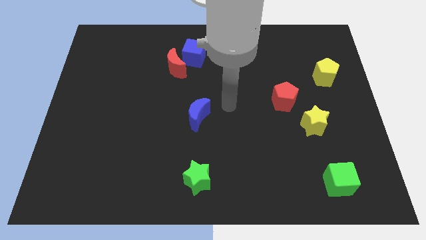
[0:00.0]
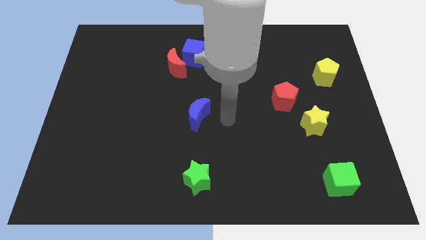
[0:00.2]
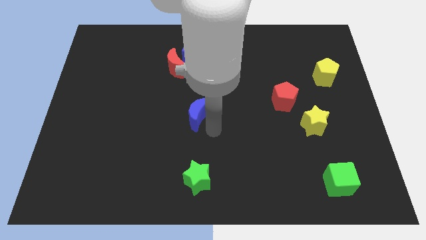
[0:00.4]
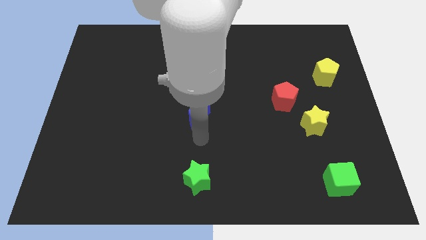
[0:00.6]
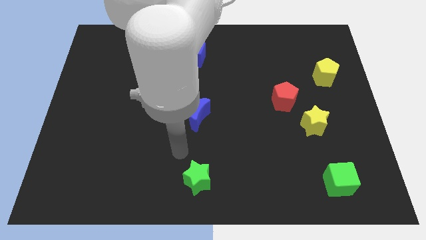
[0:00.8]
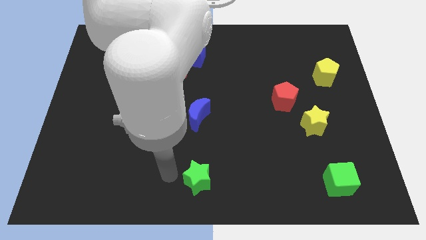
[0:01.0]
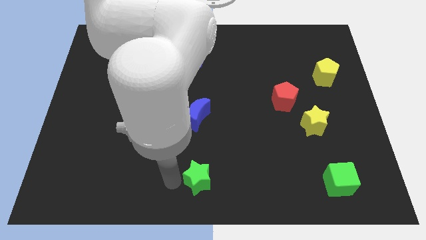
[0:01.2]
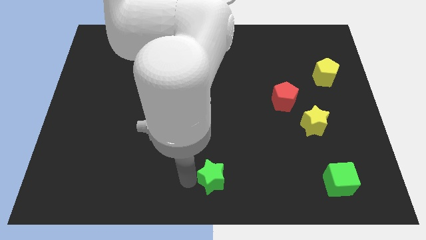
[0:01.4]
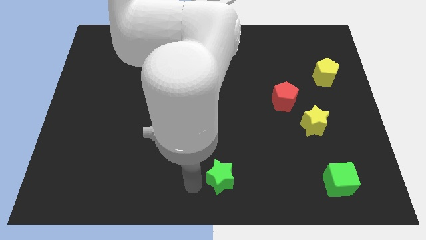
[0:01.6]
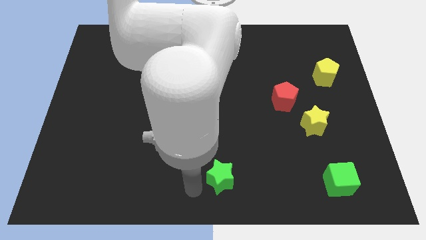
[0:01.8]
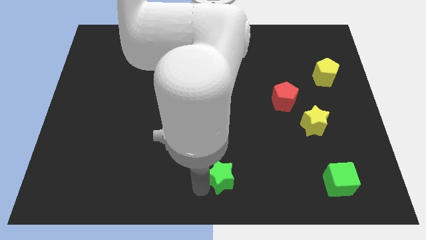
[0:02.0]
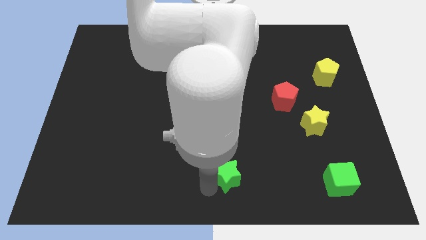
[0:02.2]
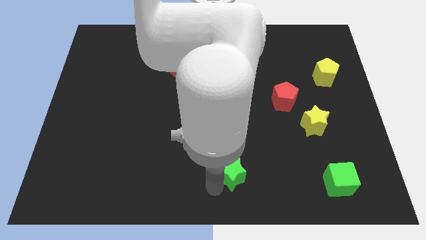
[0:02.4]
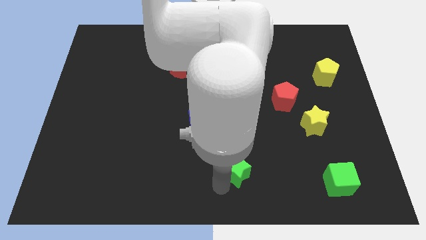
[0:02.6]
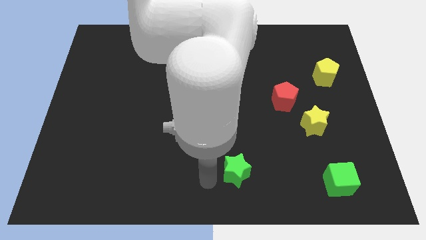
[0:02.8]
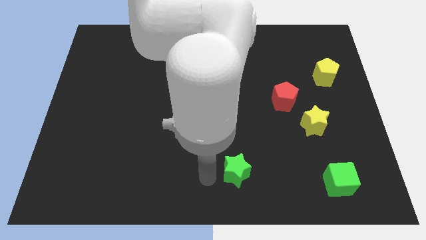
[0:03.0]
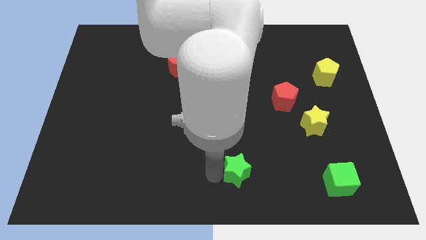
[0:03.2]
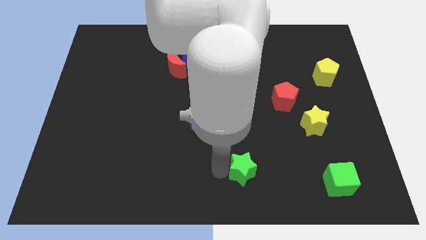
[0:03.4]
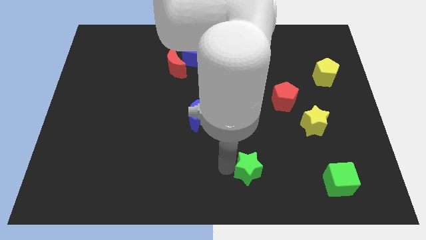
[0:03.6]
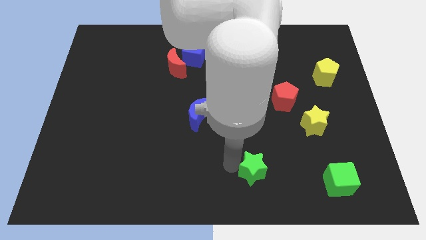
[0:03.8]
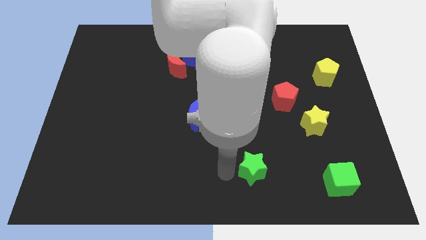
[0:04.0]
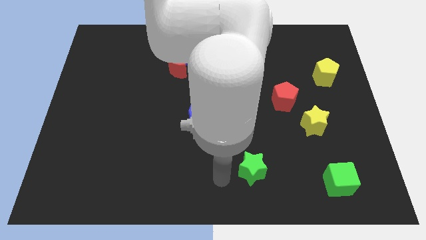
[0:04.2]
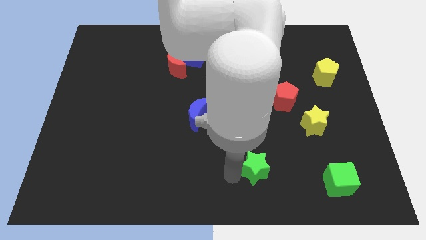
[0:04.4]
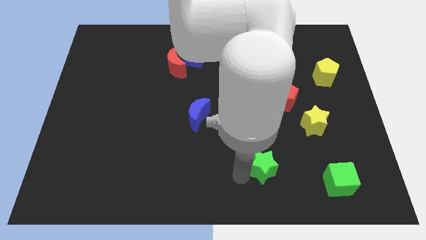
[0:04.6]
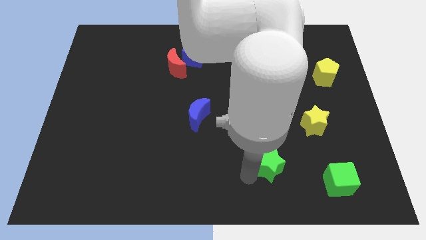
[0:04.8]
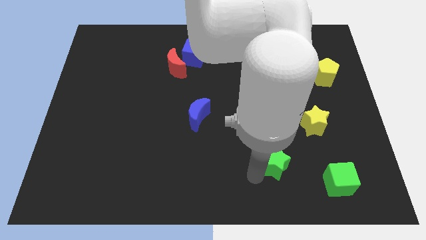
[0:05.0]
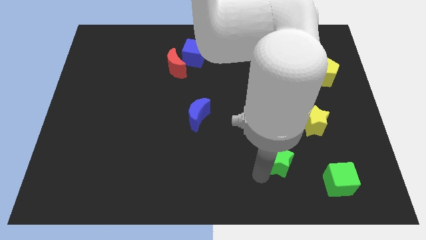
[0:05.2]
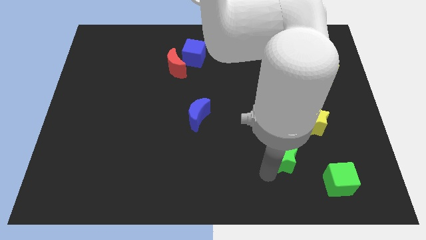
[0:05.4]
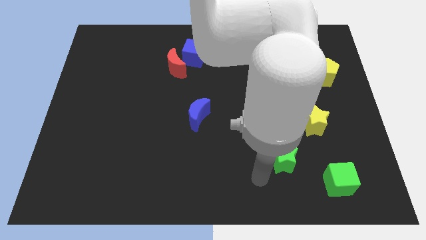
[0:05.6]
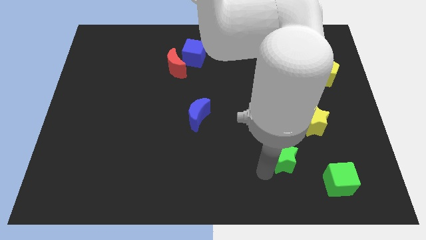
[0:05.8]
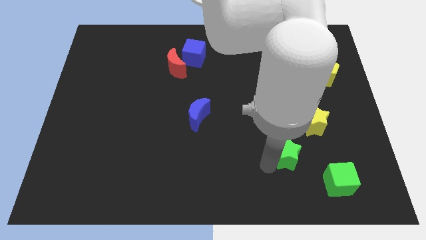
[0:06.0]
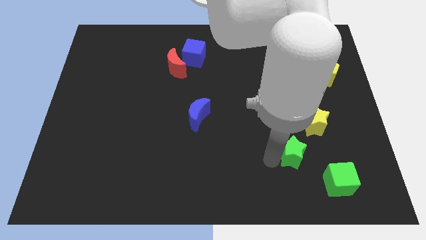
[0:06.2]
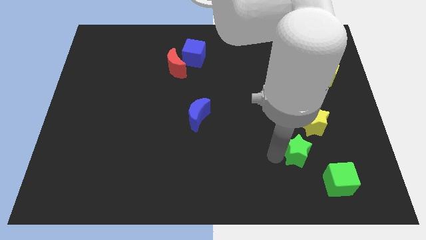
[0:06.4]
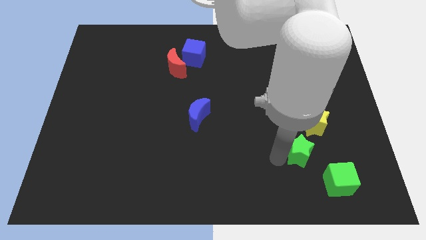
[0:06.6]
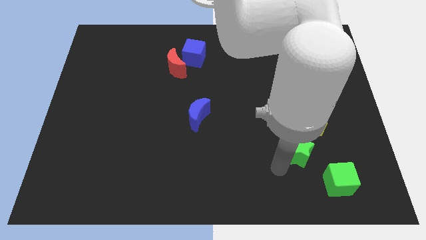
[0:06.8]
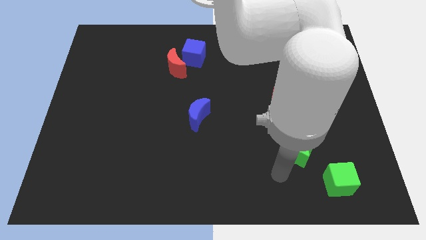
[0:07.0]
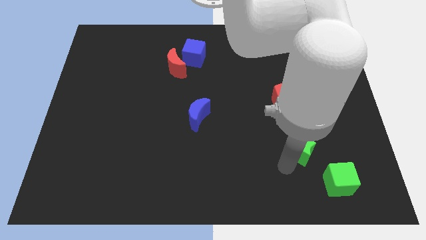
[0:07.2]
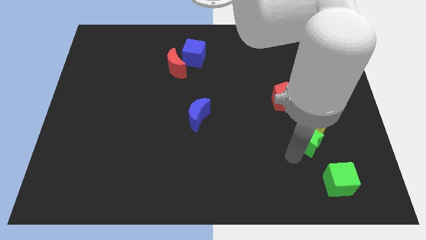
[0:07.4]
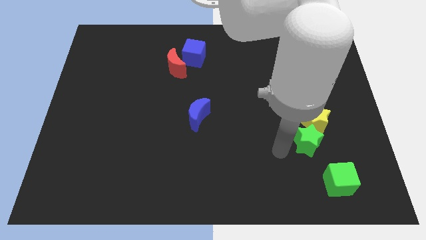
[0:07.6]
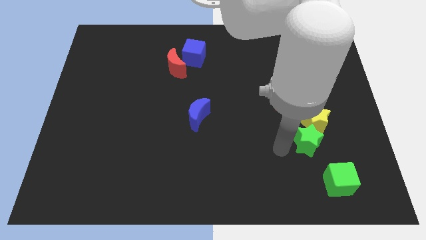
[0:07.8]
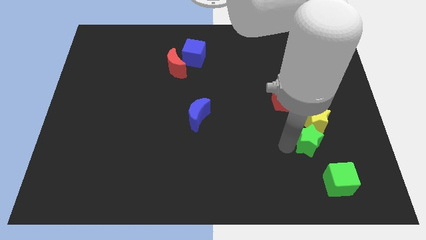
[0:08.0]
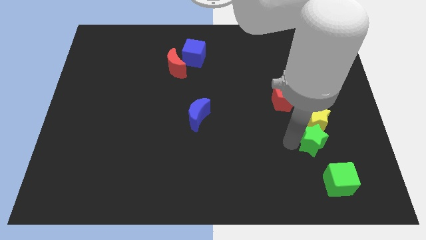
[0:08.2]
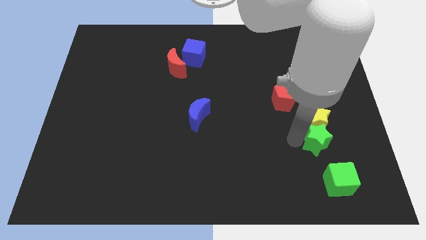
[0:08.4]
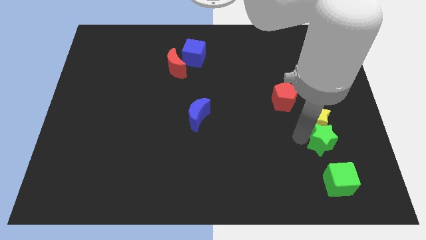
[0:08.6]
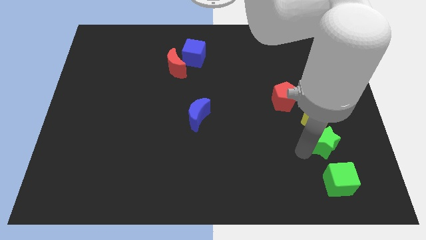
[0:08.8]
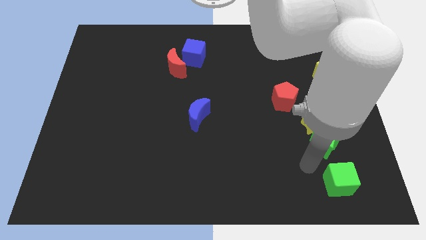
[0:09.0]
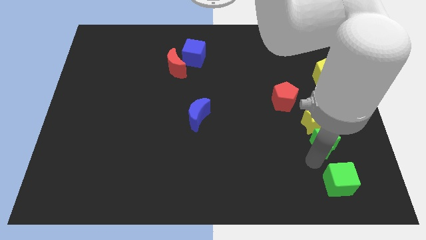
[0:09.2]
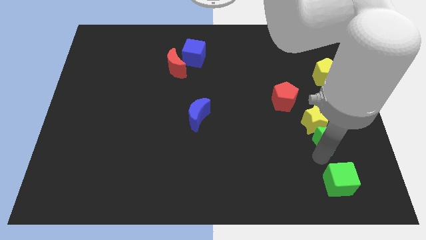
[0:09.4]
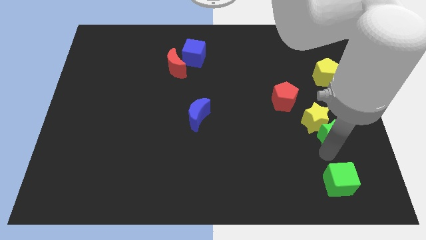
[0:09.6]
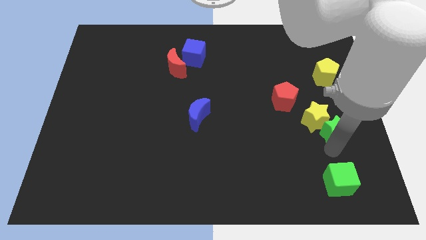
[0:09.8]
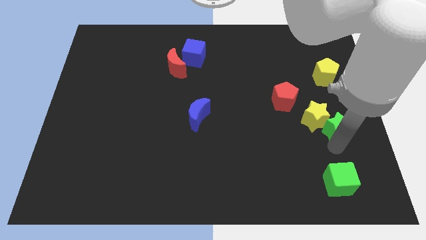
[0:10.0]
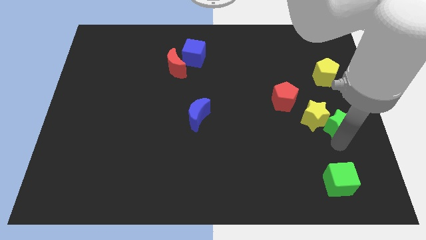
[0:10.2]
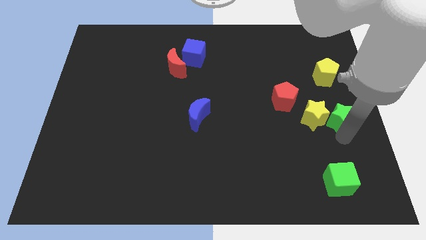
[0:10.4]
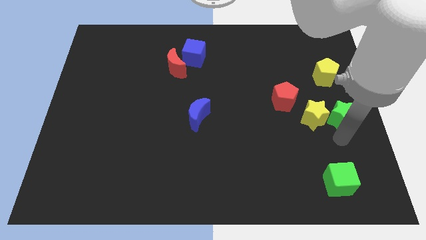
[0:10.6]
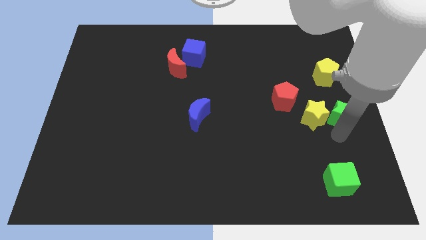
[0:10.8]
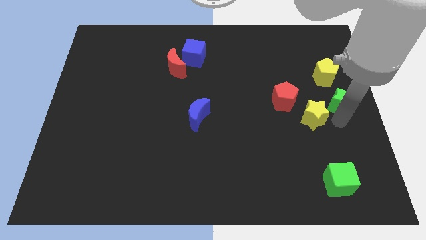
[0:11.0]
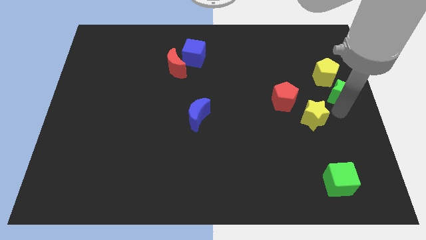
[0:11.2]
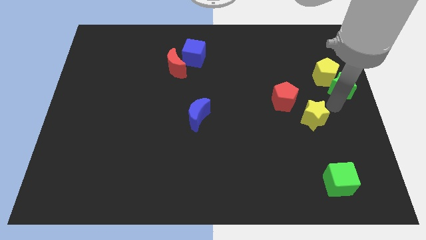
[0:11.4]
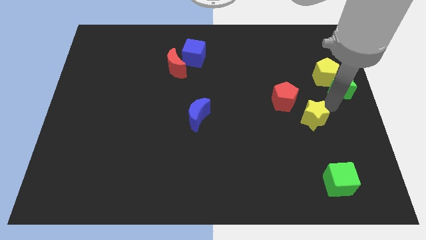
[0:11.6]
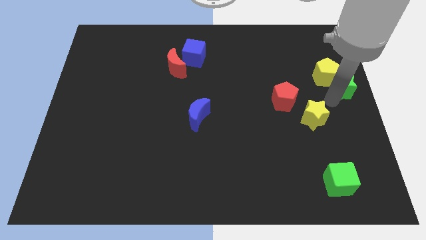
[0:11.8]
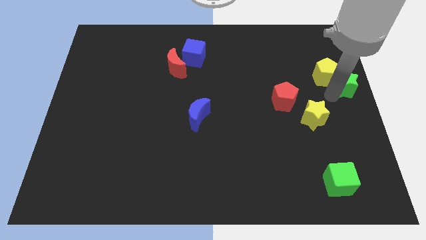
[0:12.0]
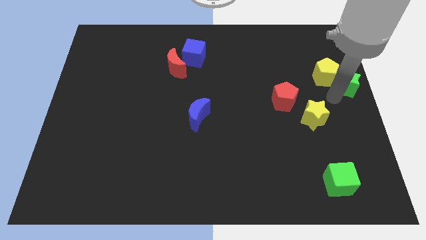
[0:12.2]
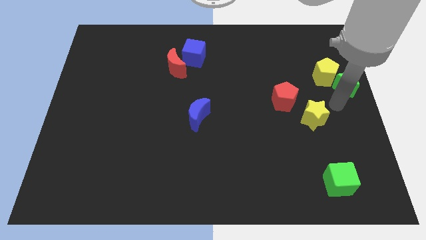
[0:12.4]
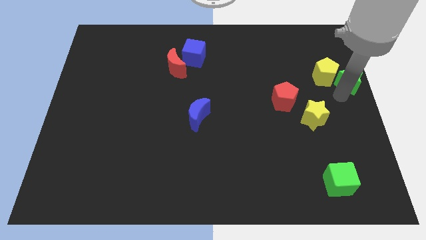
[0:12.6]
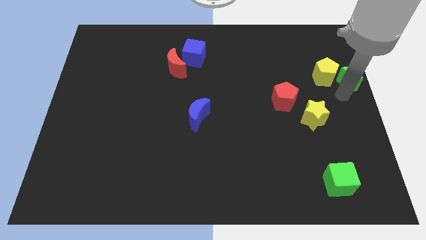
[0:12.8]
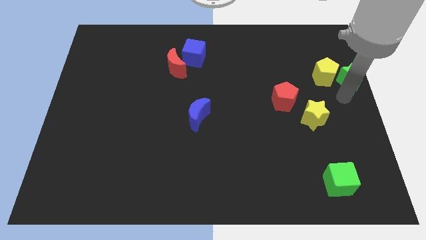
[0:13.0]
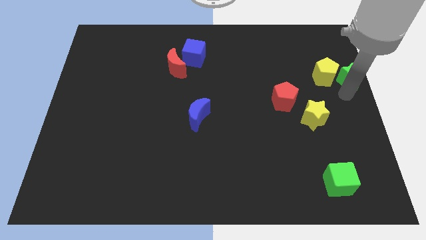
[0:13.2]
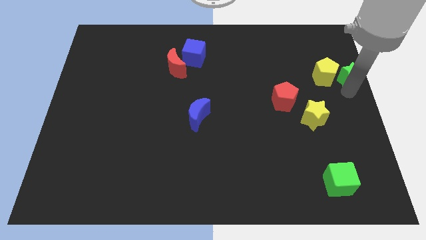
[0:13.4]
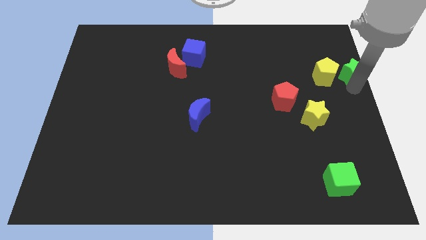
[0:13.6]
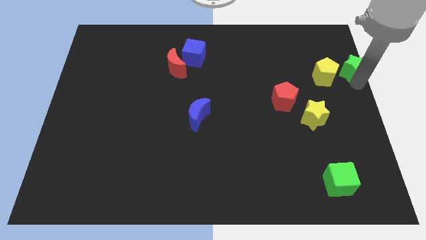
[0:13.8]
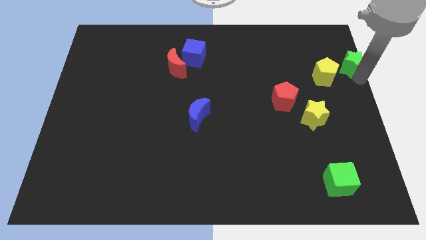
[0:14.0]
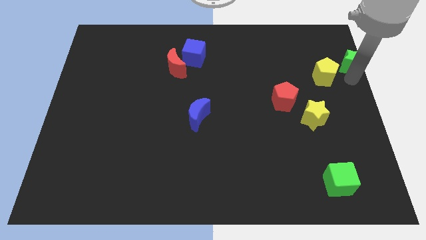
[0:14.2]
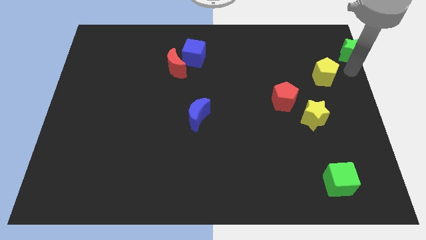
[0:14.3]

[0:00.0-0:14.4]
move the green star to the top right corner

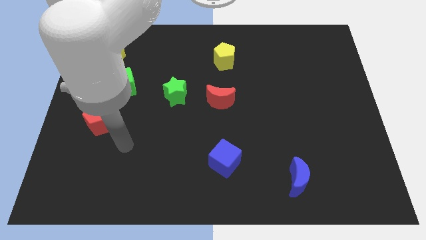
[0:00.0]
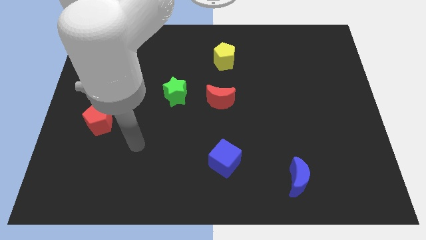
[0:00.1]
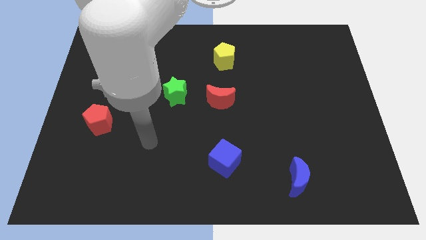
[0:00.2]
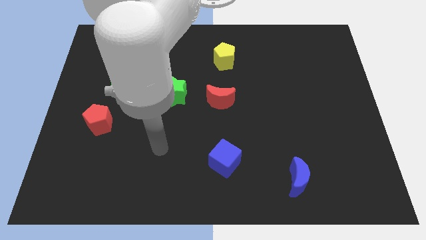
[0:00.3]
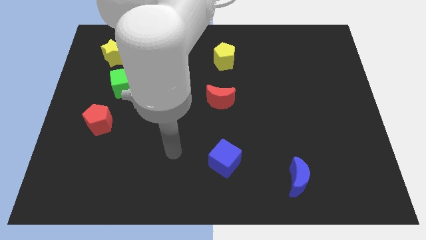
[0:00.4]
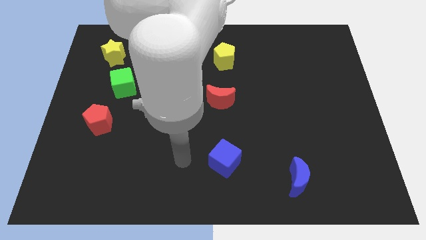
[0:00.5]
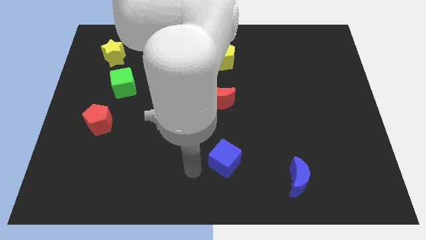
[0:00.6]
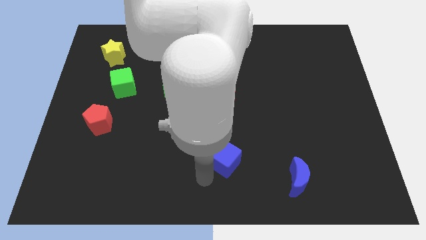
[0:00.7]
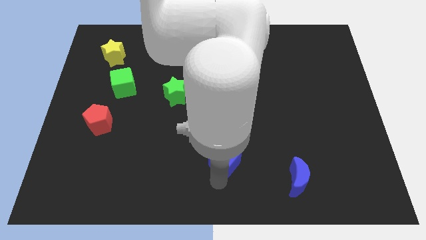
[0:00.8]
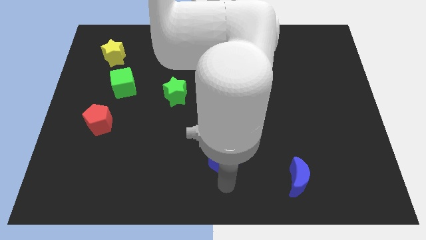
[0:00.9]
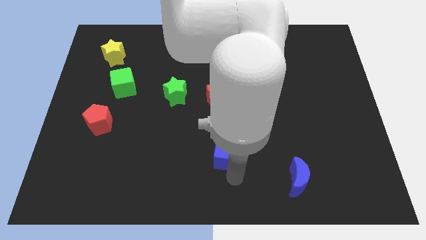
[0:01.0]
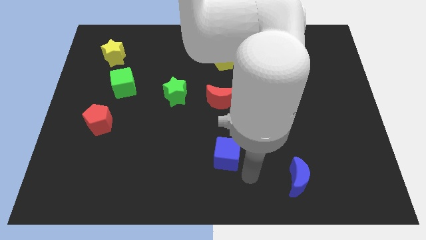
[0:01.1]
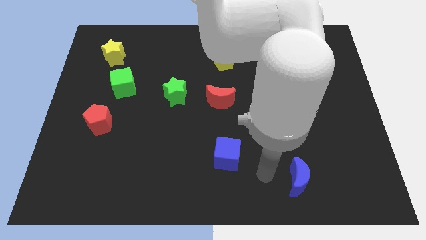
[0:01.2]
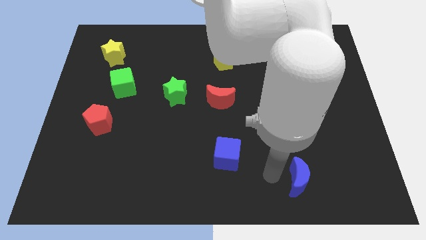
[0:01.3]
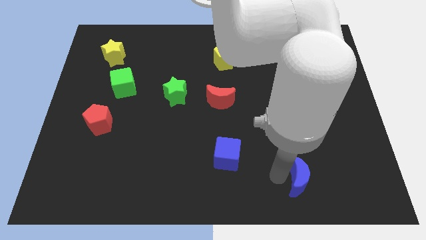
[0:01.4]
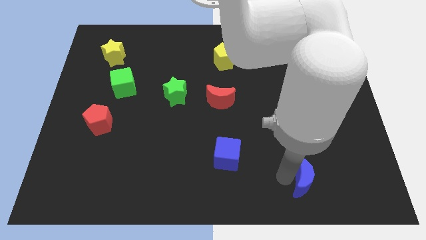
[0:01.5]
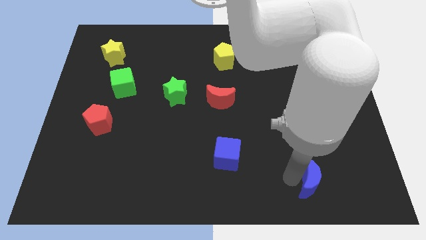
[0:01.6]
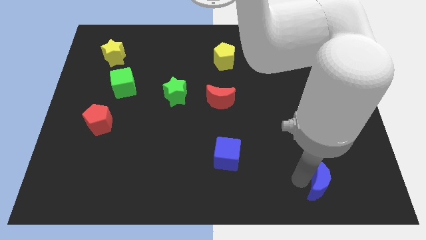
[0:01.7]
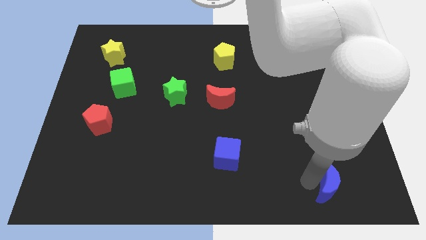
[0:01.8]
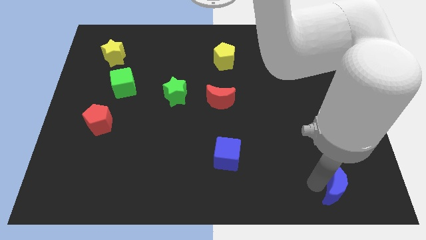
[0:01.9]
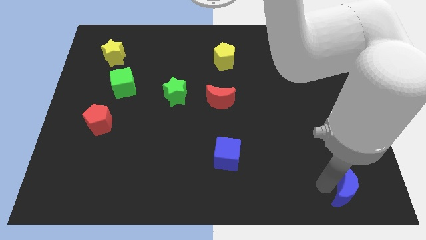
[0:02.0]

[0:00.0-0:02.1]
move the blue moon to the bottom right
